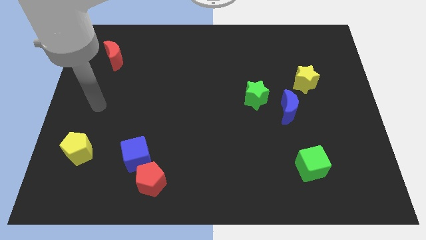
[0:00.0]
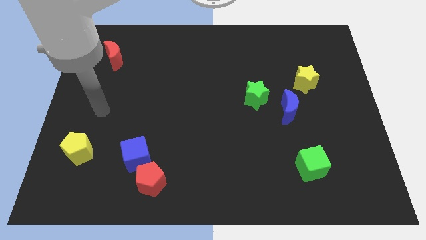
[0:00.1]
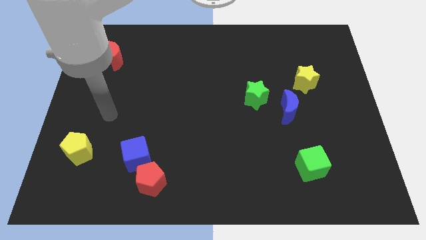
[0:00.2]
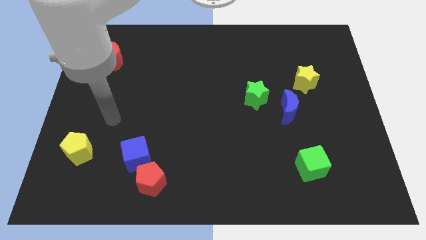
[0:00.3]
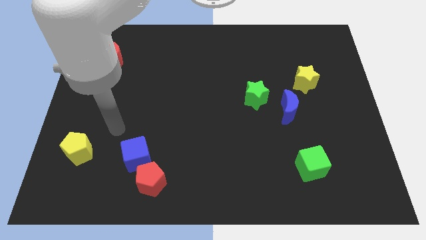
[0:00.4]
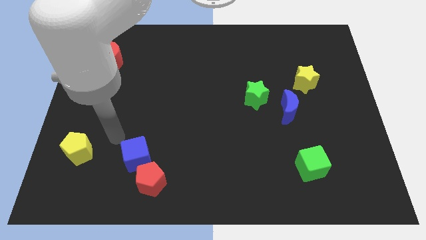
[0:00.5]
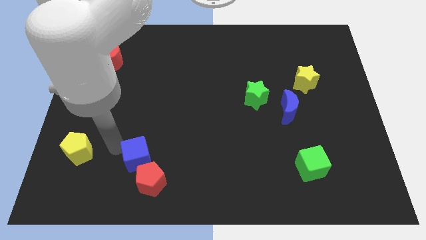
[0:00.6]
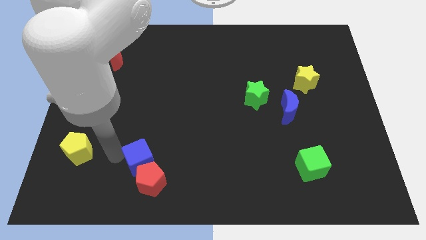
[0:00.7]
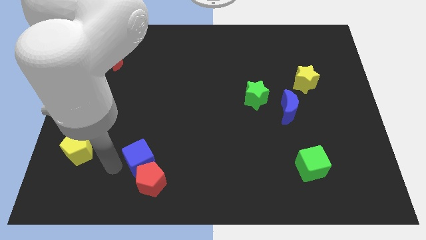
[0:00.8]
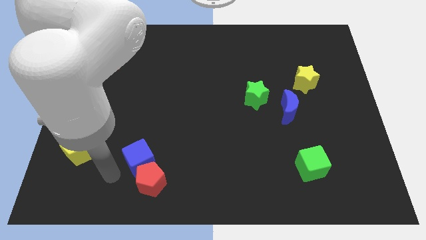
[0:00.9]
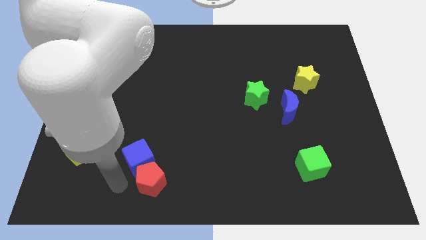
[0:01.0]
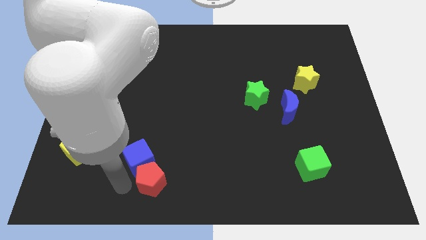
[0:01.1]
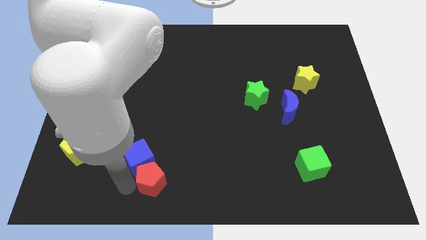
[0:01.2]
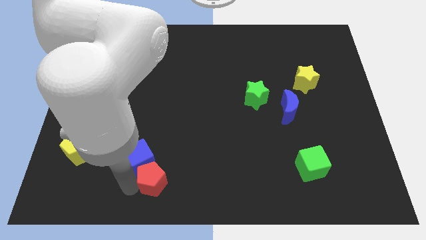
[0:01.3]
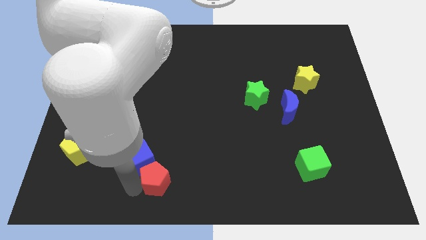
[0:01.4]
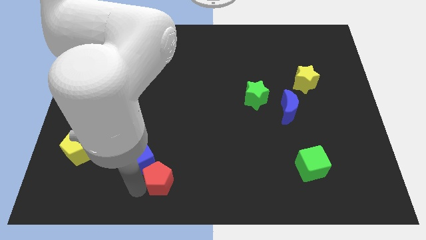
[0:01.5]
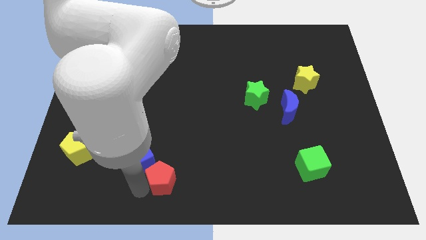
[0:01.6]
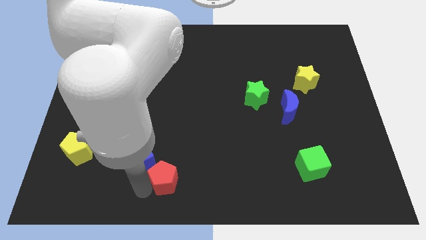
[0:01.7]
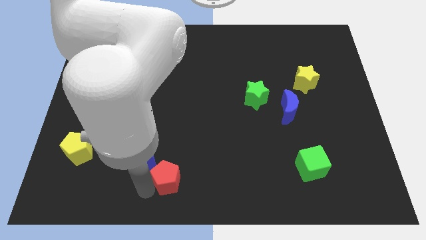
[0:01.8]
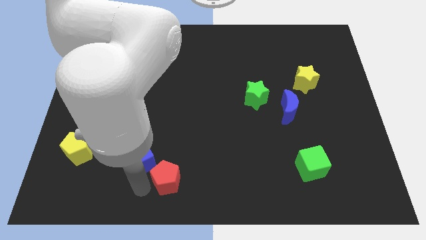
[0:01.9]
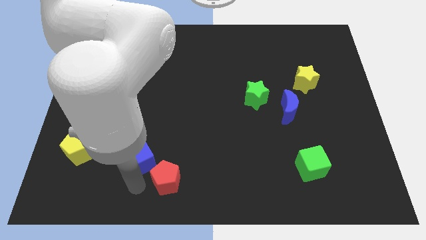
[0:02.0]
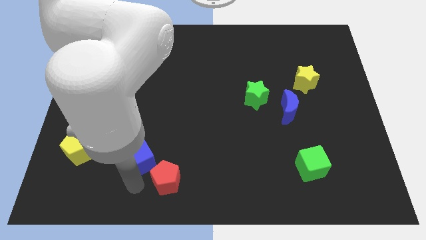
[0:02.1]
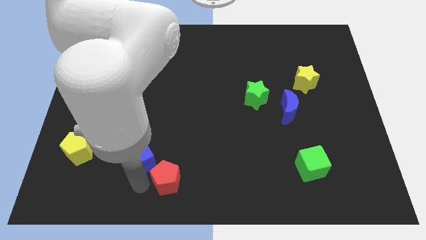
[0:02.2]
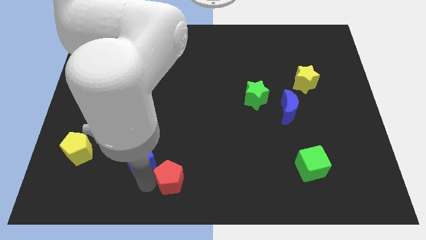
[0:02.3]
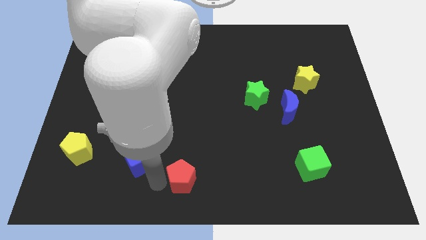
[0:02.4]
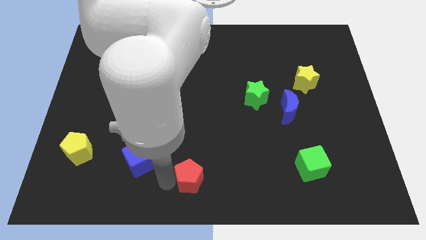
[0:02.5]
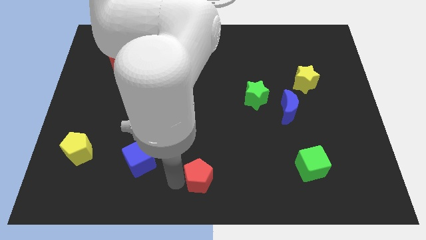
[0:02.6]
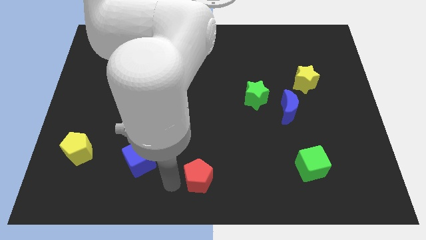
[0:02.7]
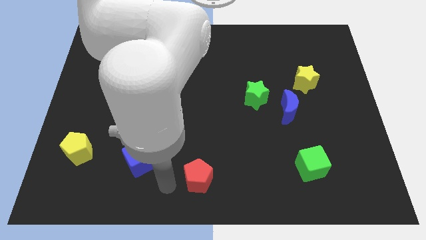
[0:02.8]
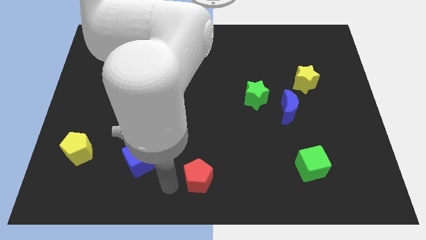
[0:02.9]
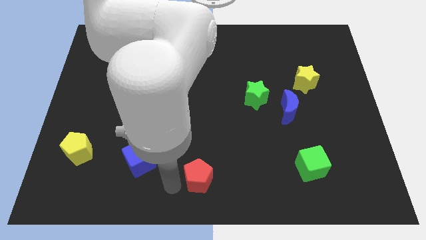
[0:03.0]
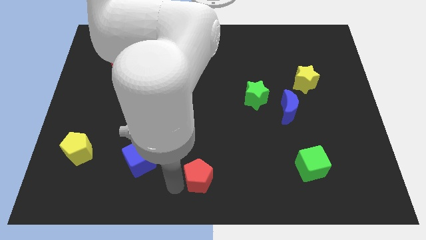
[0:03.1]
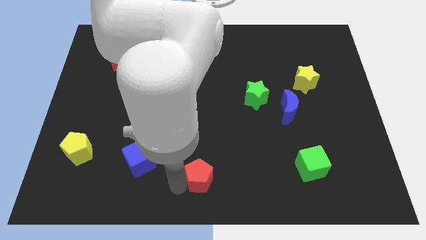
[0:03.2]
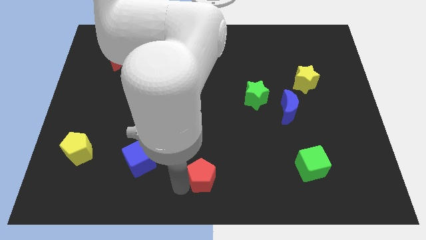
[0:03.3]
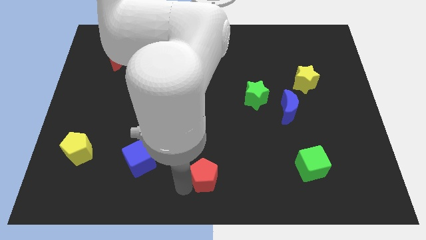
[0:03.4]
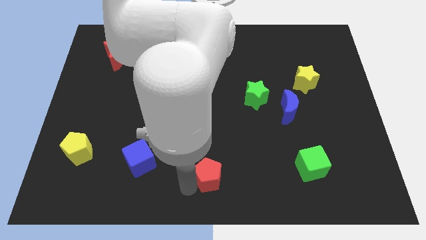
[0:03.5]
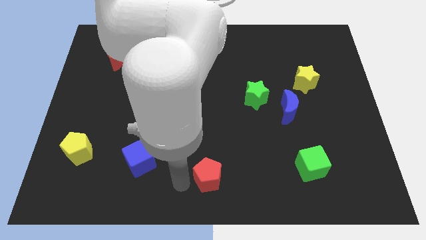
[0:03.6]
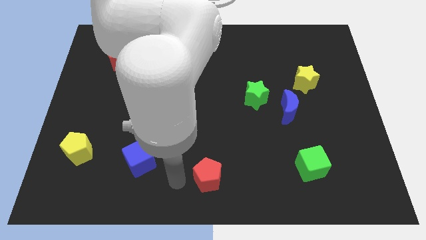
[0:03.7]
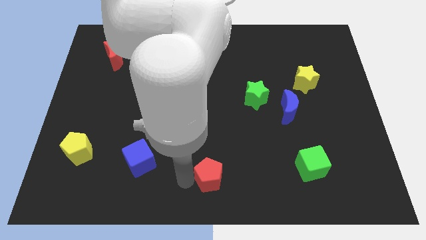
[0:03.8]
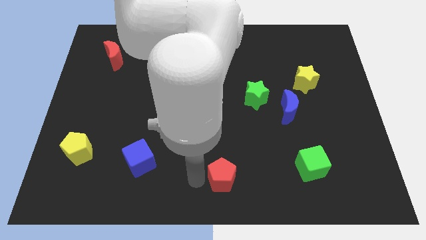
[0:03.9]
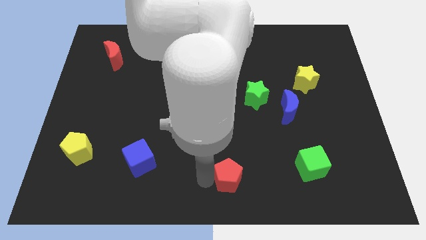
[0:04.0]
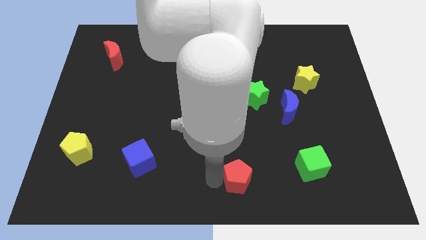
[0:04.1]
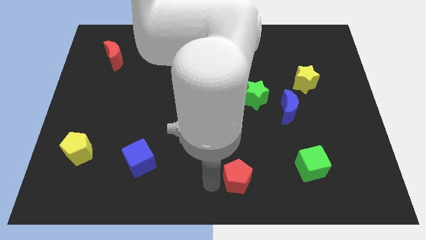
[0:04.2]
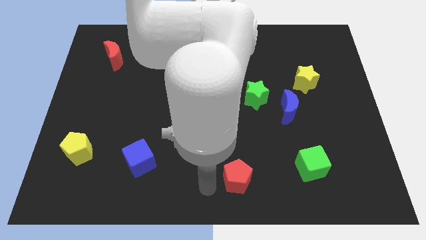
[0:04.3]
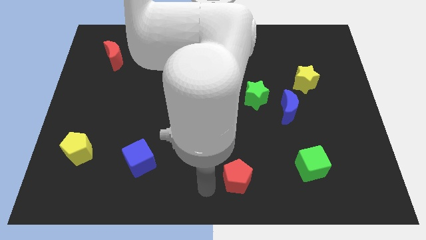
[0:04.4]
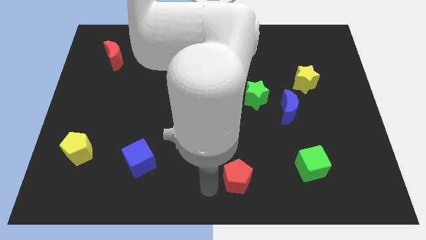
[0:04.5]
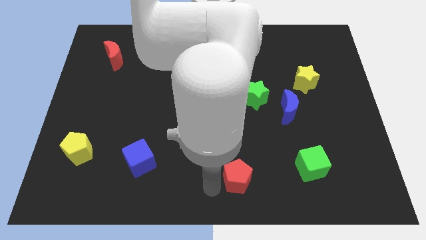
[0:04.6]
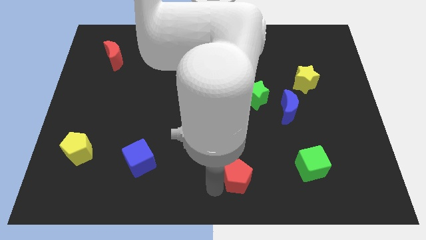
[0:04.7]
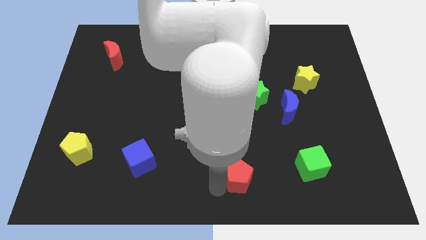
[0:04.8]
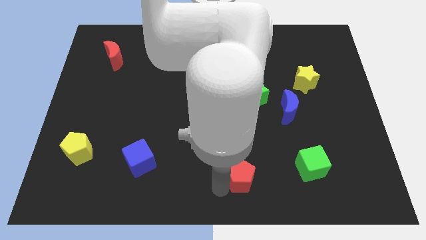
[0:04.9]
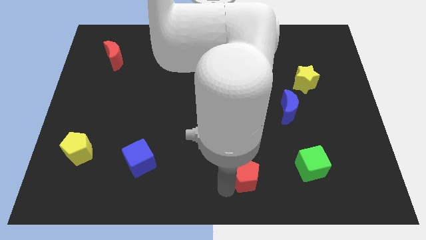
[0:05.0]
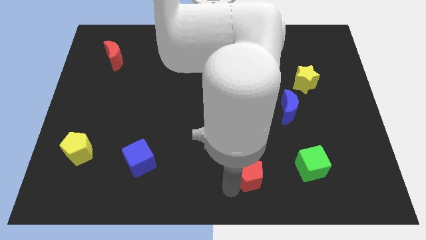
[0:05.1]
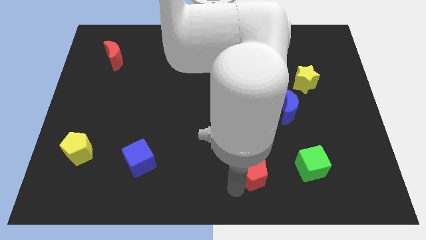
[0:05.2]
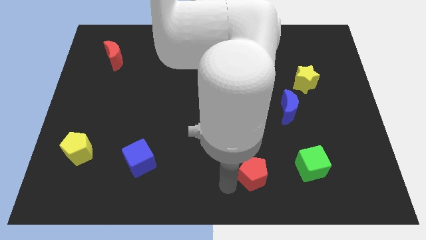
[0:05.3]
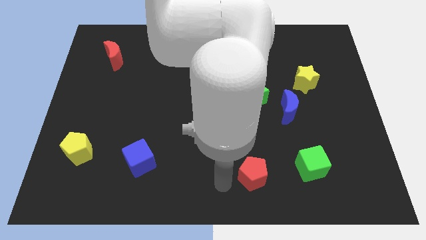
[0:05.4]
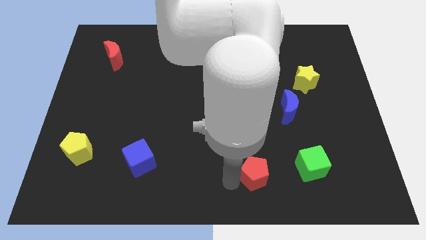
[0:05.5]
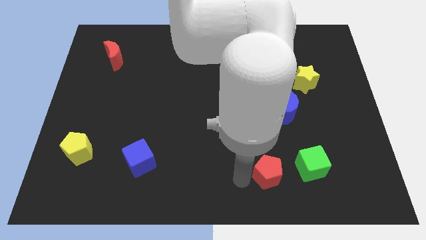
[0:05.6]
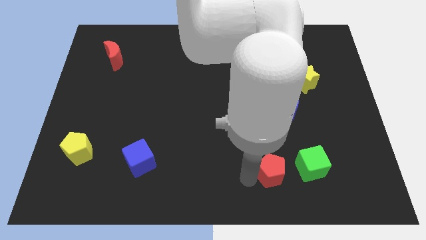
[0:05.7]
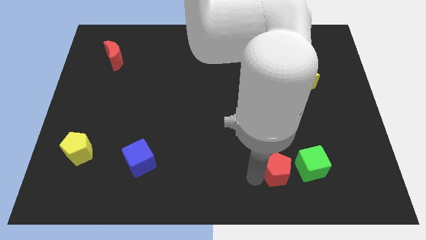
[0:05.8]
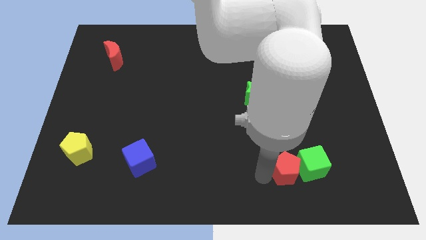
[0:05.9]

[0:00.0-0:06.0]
push the red pentagon close to the green cube

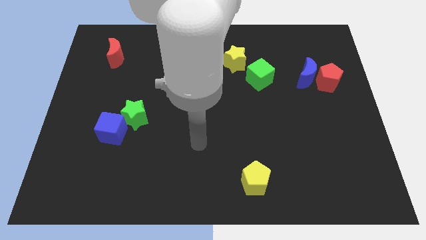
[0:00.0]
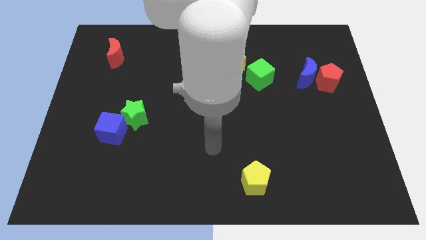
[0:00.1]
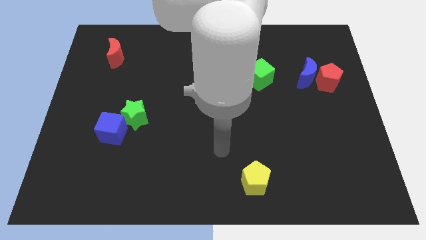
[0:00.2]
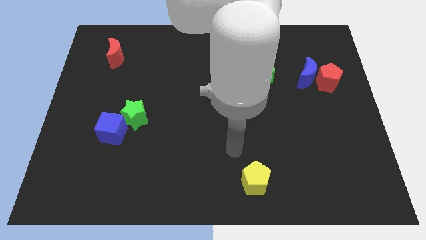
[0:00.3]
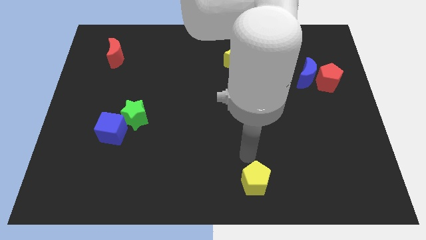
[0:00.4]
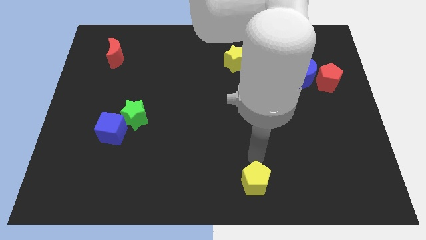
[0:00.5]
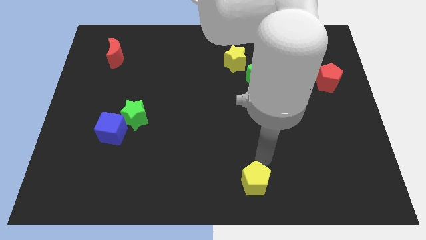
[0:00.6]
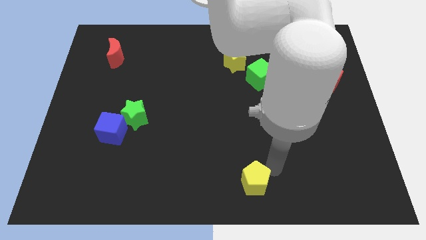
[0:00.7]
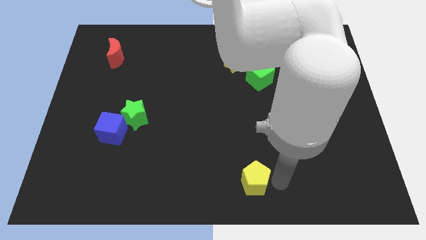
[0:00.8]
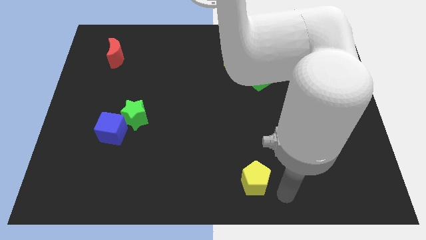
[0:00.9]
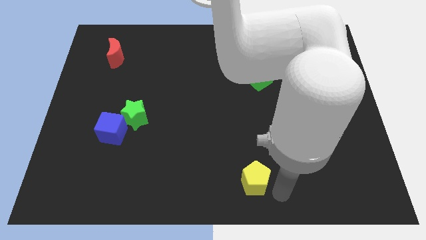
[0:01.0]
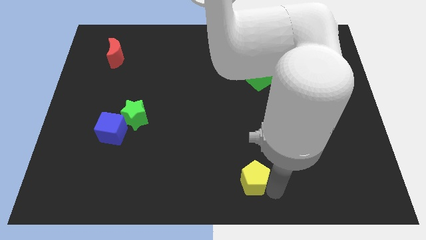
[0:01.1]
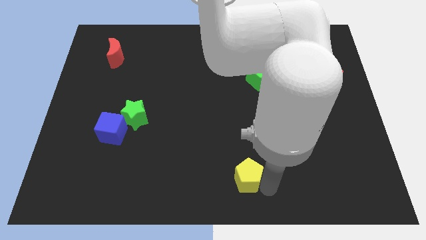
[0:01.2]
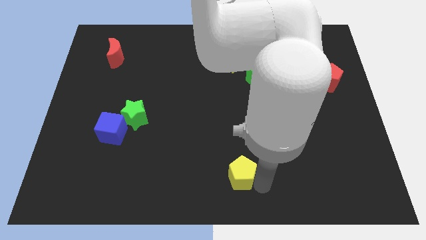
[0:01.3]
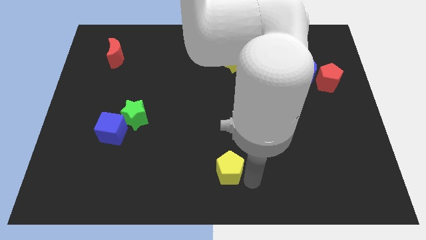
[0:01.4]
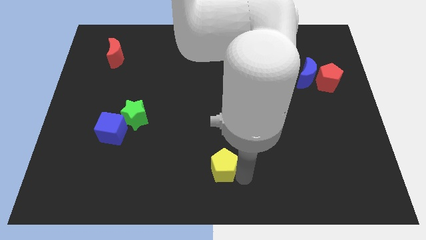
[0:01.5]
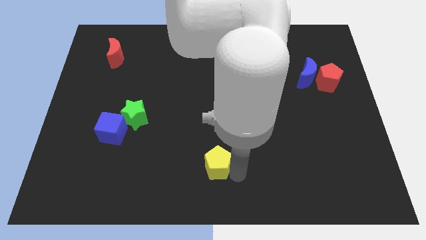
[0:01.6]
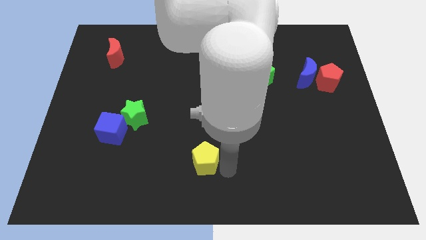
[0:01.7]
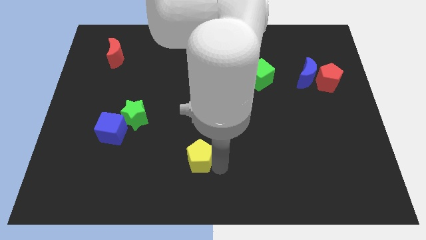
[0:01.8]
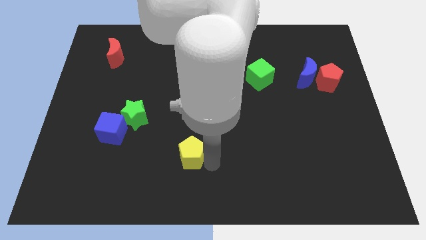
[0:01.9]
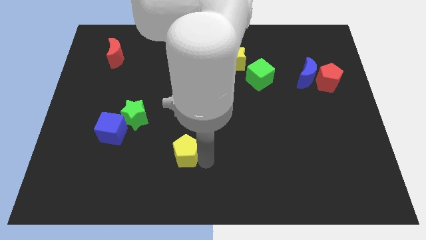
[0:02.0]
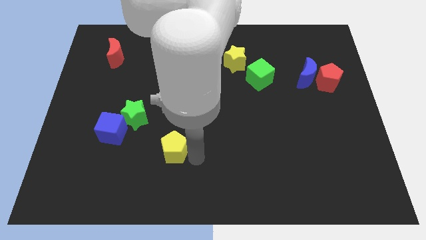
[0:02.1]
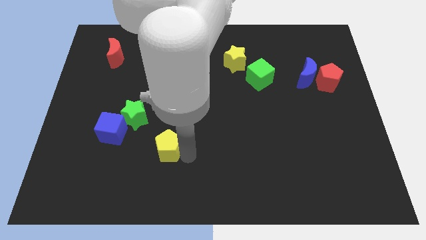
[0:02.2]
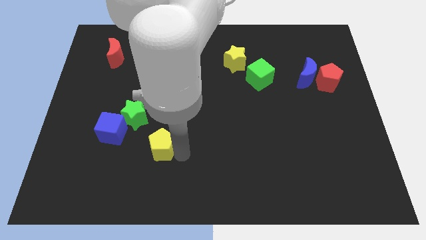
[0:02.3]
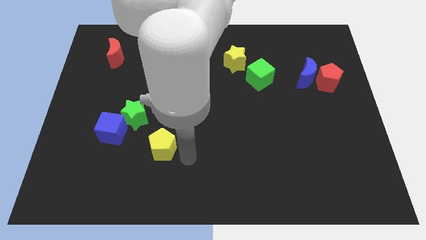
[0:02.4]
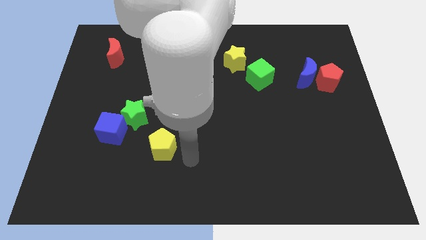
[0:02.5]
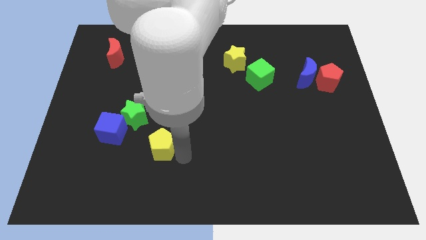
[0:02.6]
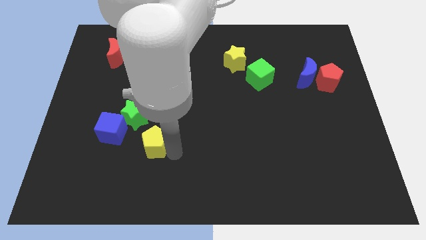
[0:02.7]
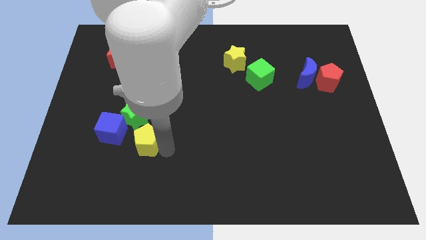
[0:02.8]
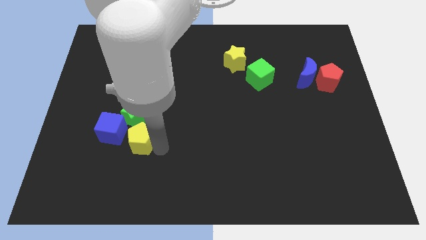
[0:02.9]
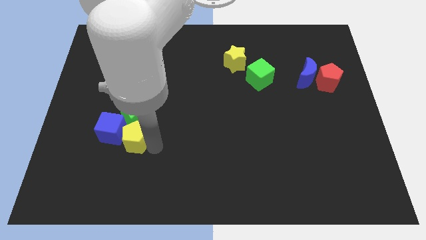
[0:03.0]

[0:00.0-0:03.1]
move the yellow pentagon next to the blue cube
